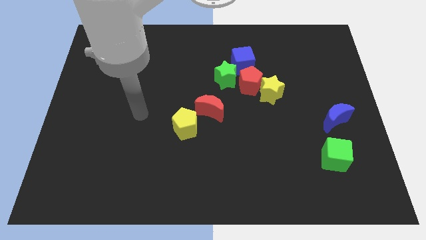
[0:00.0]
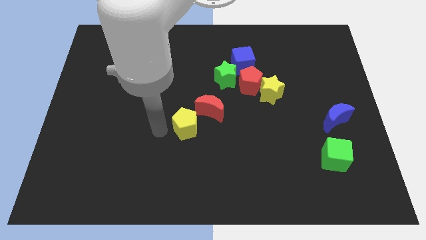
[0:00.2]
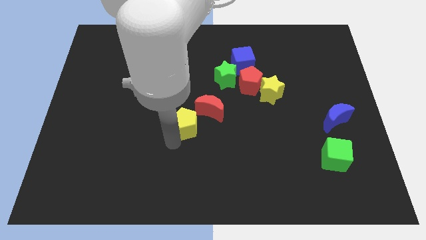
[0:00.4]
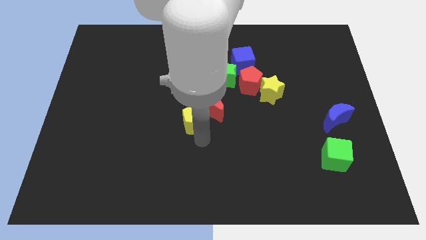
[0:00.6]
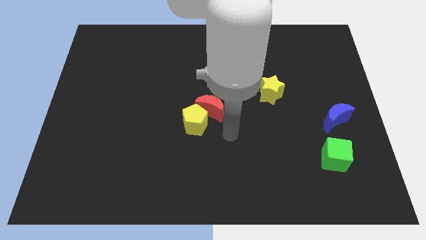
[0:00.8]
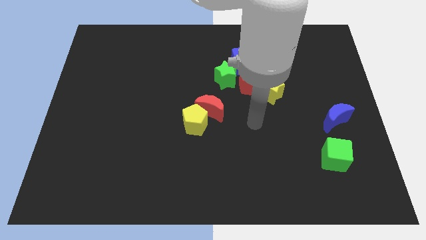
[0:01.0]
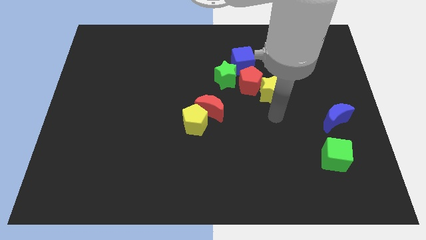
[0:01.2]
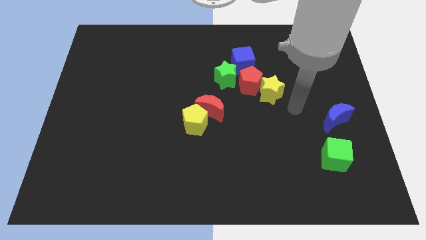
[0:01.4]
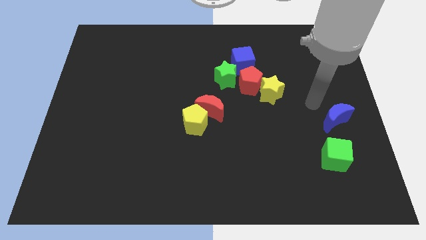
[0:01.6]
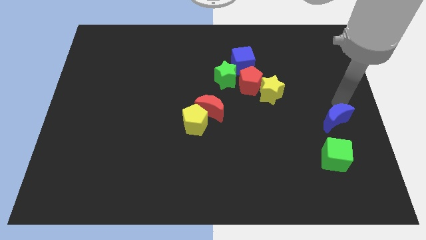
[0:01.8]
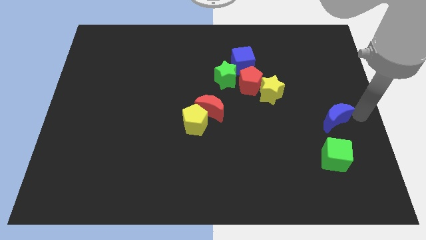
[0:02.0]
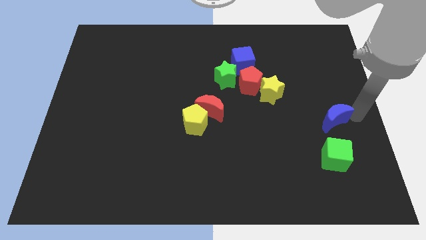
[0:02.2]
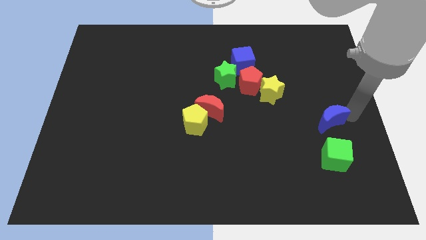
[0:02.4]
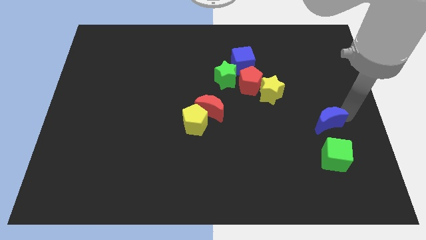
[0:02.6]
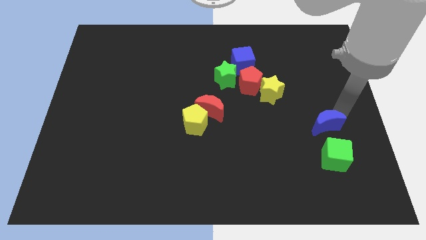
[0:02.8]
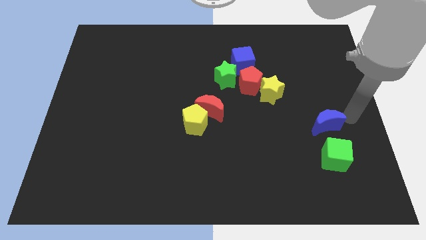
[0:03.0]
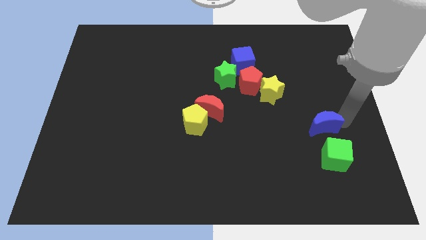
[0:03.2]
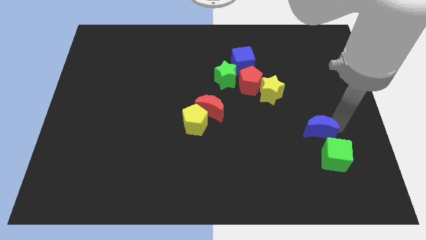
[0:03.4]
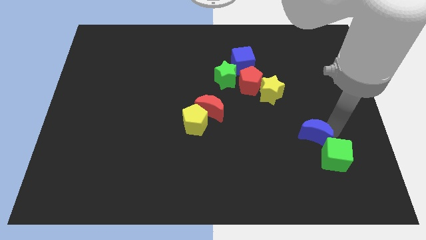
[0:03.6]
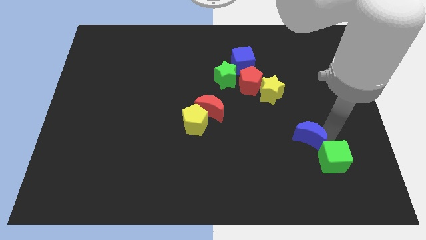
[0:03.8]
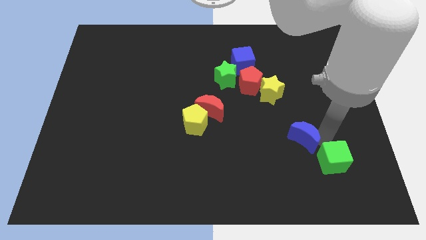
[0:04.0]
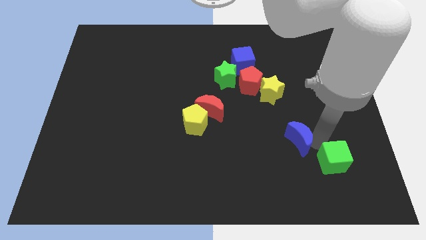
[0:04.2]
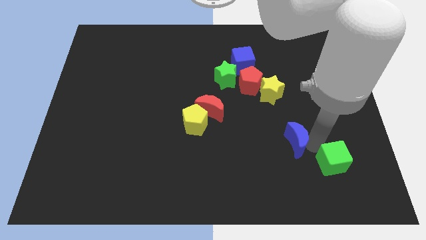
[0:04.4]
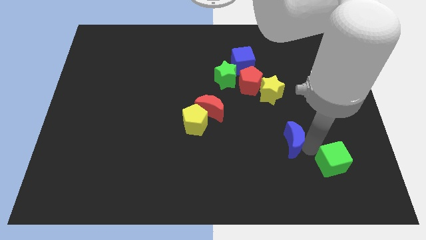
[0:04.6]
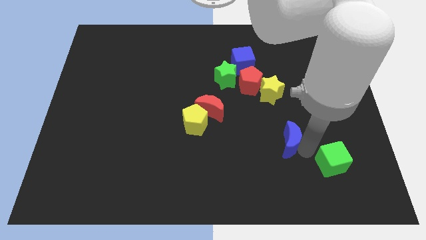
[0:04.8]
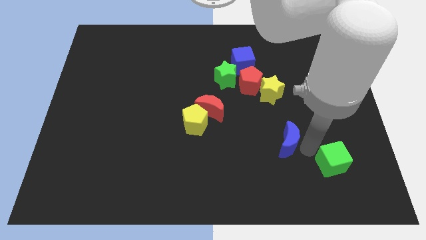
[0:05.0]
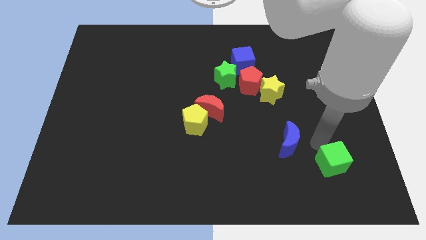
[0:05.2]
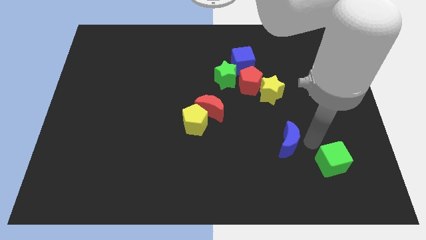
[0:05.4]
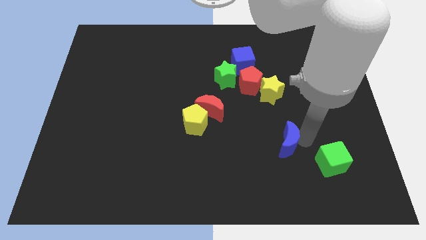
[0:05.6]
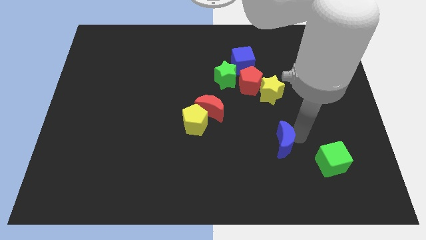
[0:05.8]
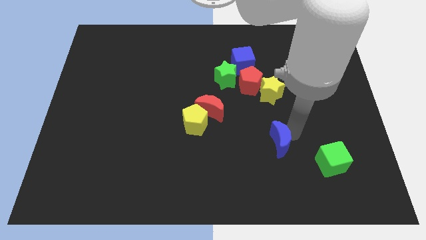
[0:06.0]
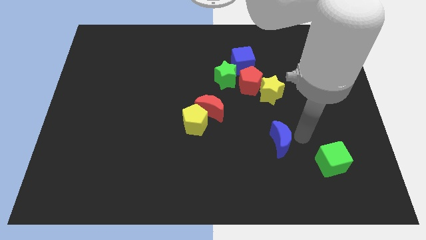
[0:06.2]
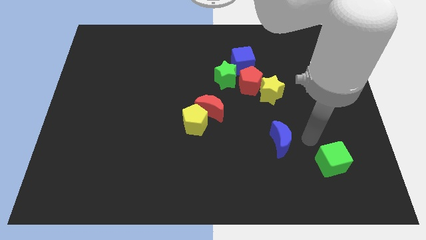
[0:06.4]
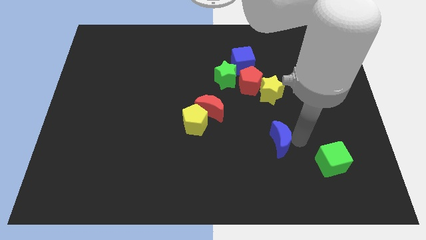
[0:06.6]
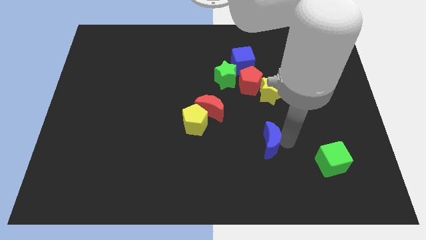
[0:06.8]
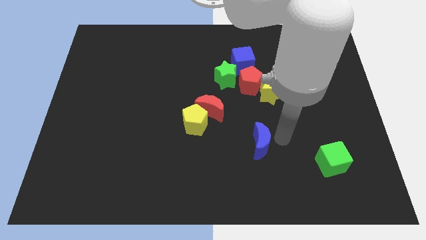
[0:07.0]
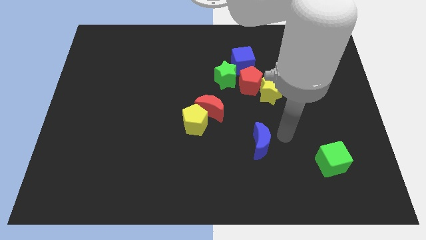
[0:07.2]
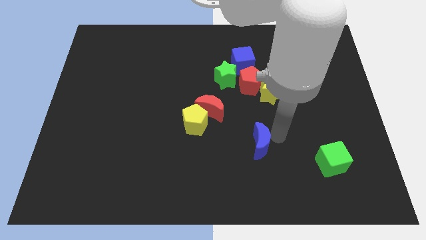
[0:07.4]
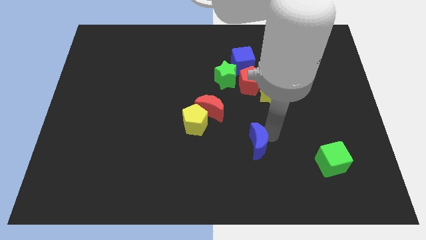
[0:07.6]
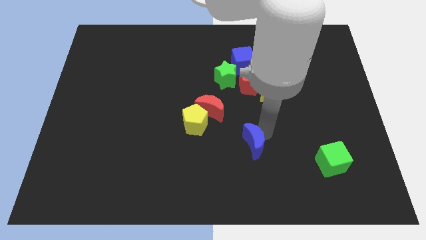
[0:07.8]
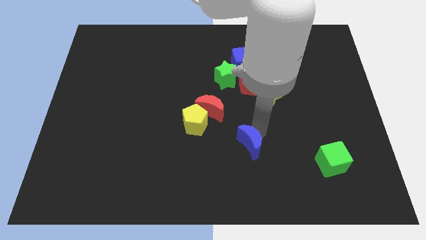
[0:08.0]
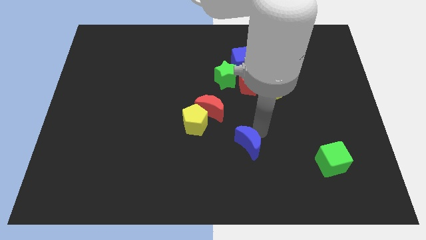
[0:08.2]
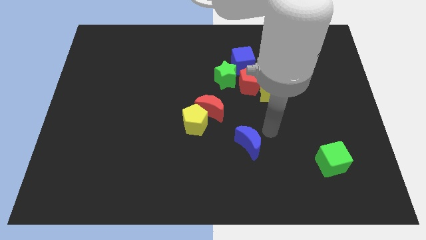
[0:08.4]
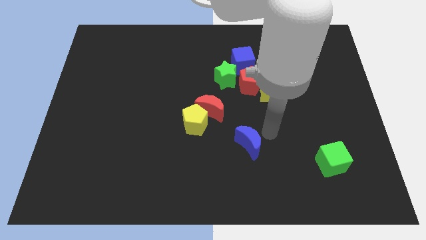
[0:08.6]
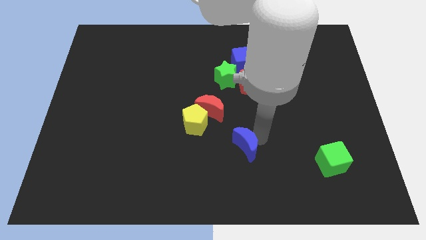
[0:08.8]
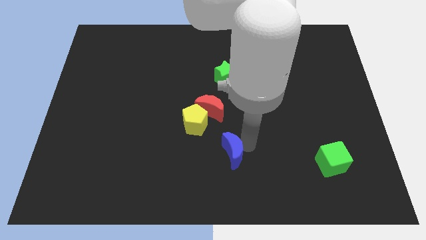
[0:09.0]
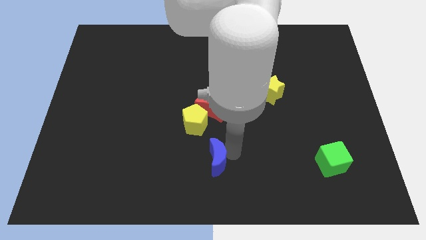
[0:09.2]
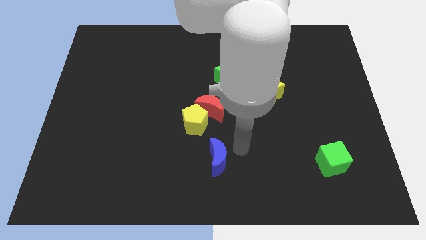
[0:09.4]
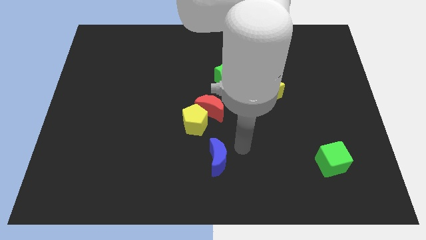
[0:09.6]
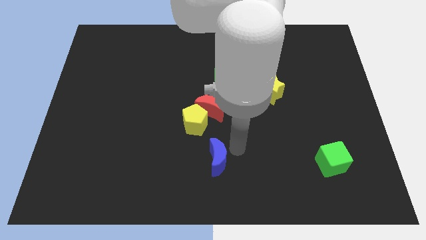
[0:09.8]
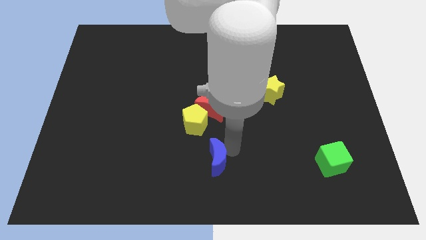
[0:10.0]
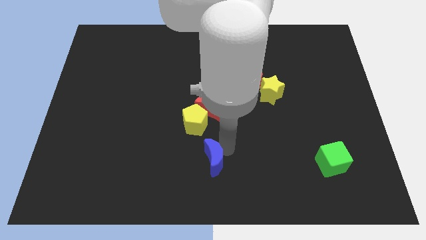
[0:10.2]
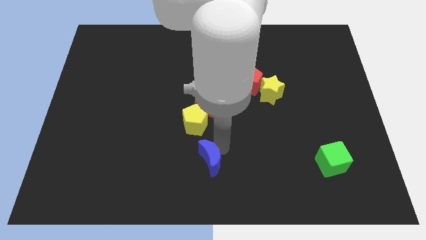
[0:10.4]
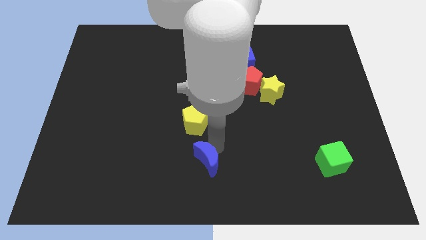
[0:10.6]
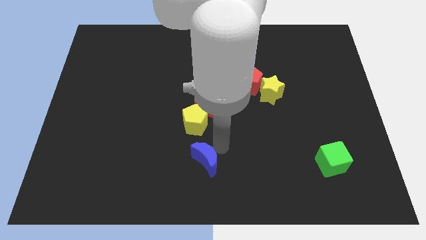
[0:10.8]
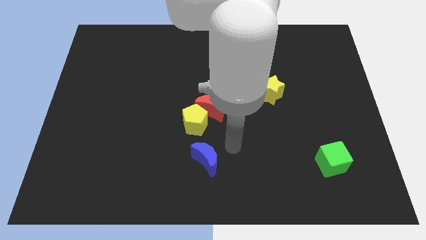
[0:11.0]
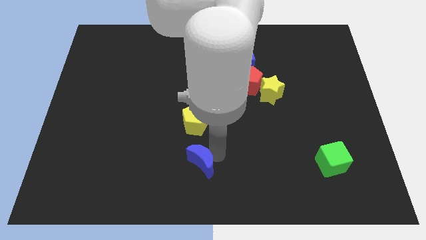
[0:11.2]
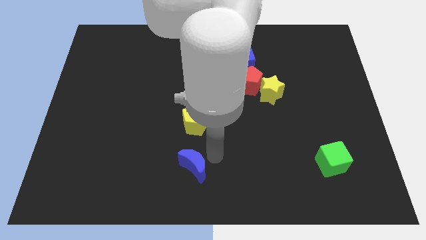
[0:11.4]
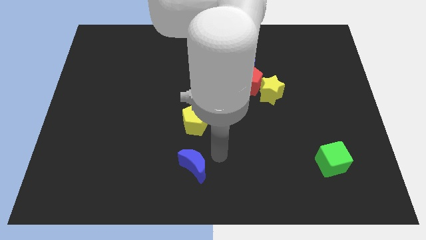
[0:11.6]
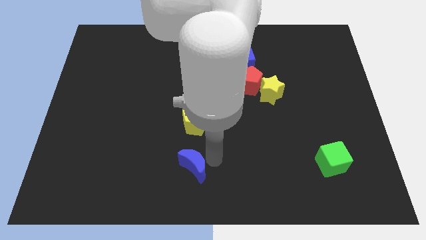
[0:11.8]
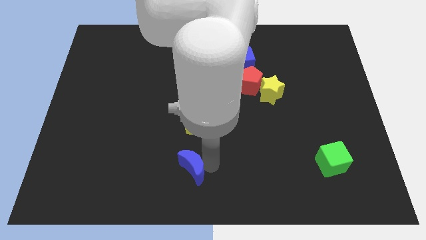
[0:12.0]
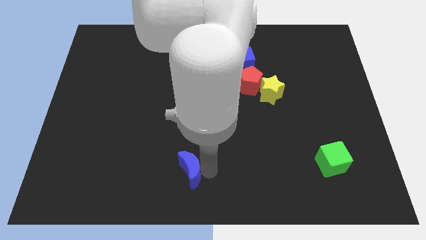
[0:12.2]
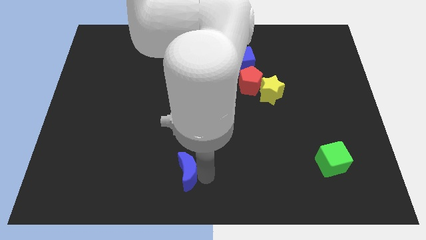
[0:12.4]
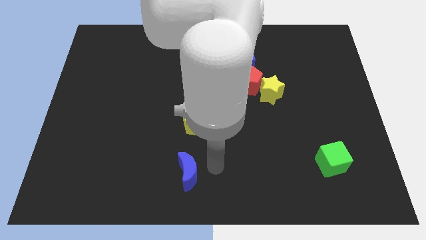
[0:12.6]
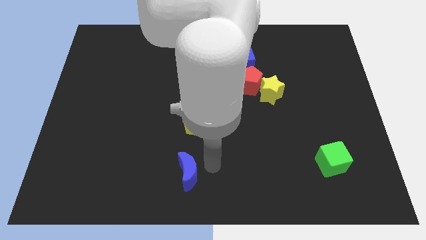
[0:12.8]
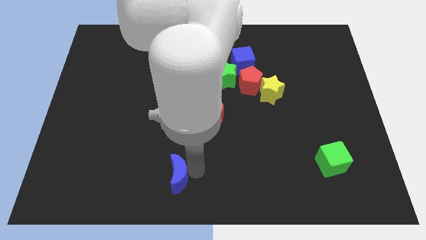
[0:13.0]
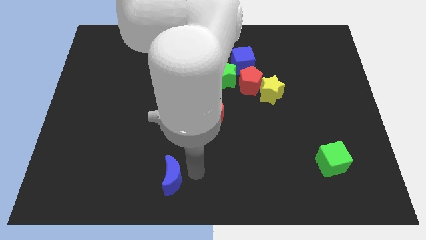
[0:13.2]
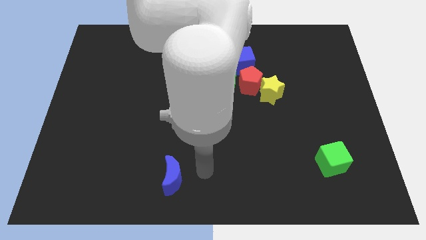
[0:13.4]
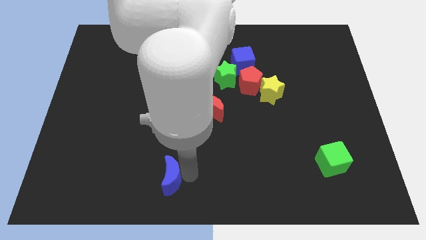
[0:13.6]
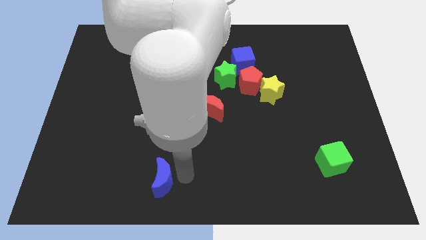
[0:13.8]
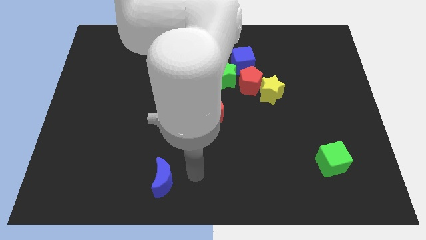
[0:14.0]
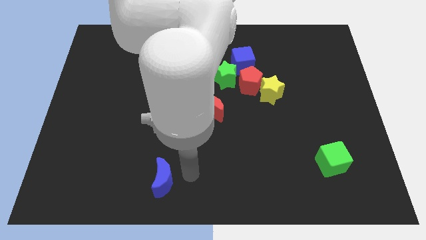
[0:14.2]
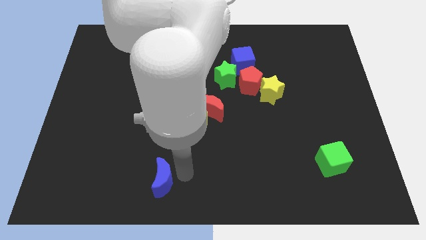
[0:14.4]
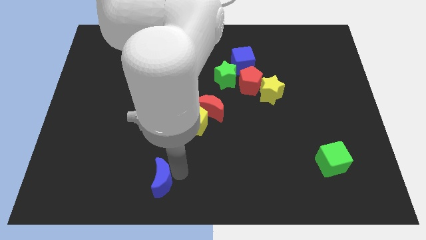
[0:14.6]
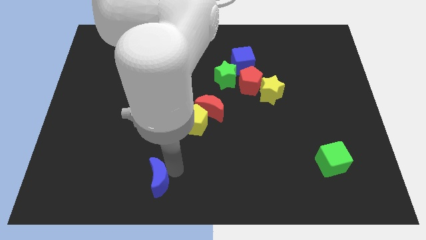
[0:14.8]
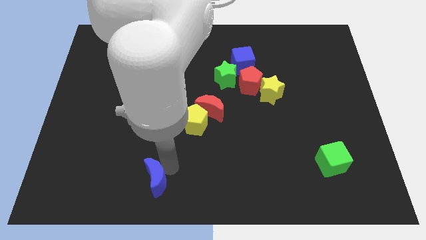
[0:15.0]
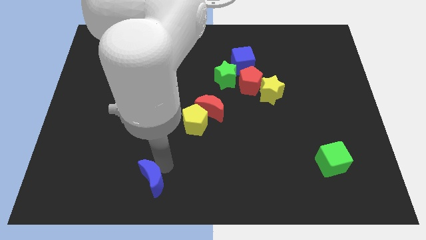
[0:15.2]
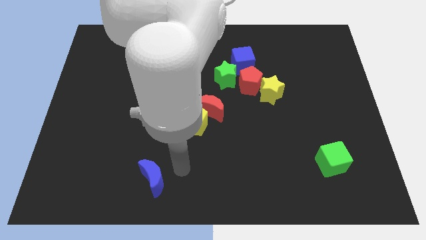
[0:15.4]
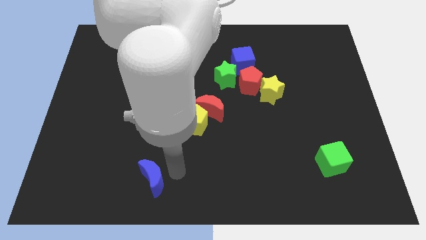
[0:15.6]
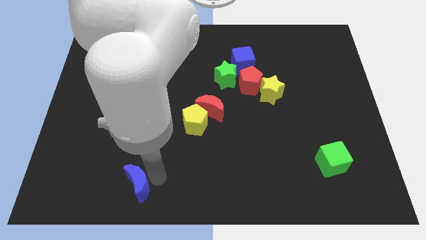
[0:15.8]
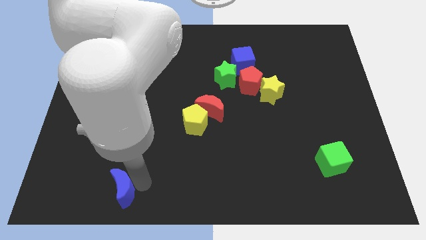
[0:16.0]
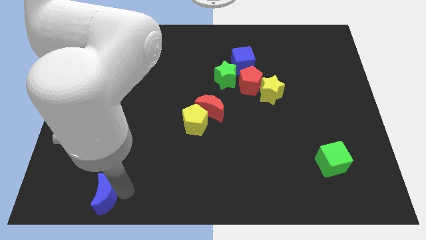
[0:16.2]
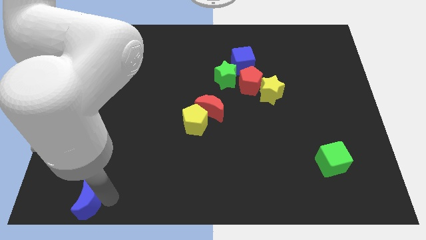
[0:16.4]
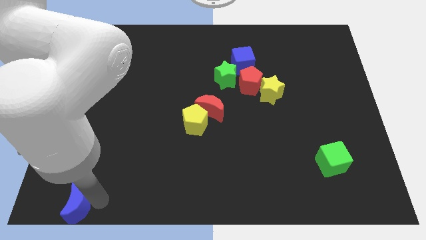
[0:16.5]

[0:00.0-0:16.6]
put the blue moon to the lower left corner
